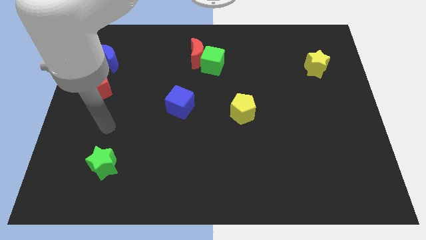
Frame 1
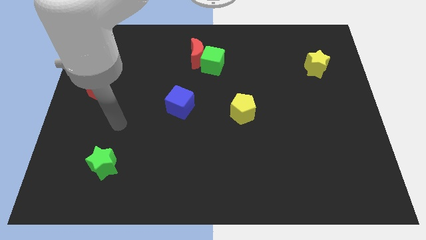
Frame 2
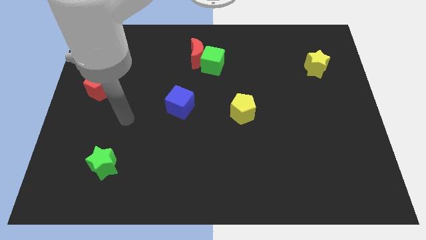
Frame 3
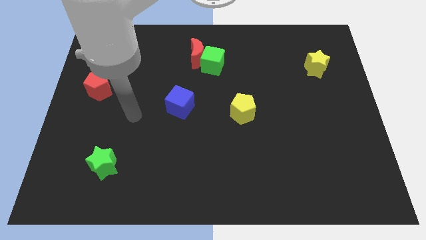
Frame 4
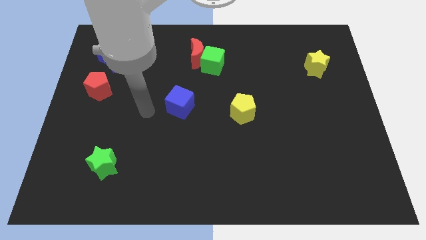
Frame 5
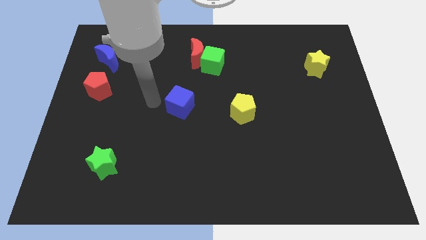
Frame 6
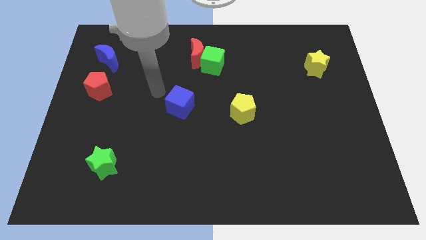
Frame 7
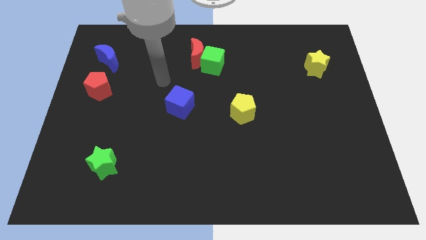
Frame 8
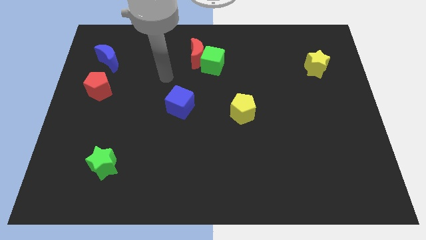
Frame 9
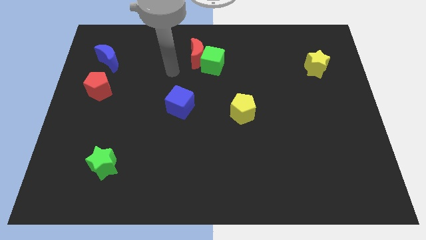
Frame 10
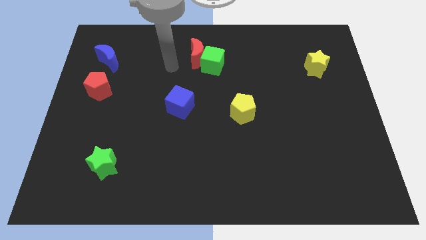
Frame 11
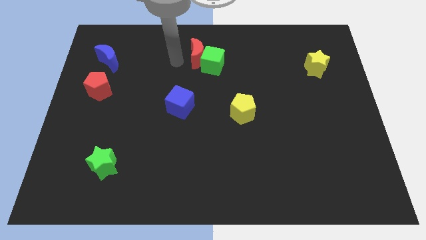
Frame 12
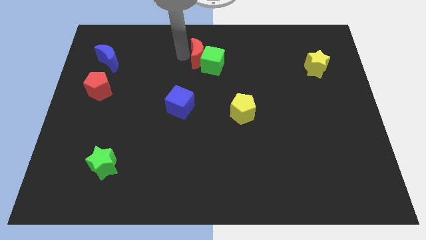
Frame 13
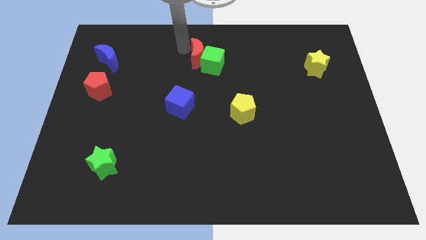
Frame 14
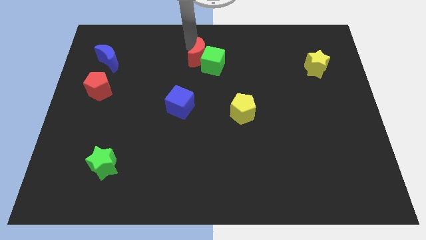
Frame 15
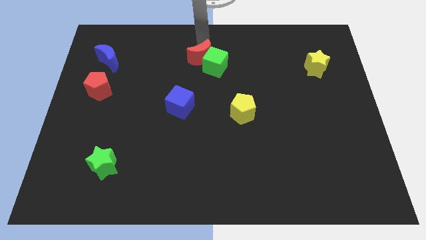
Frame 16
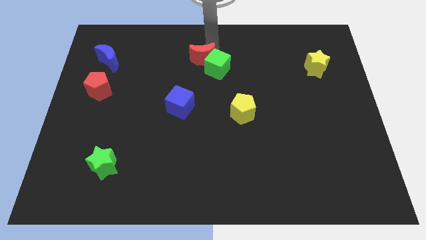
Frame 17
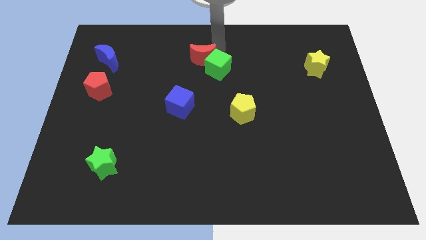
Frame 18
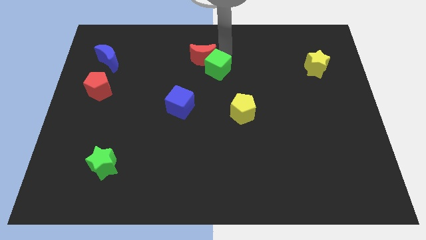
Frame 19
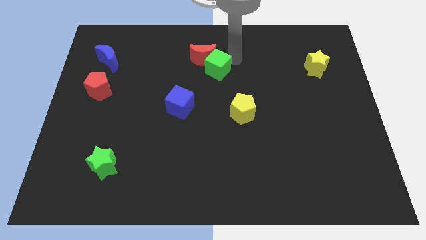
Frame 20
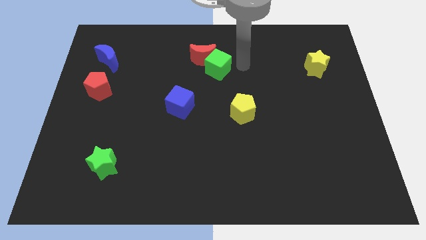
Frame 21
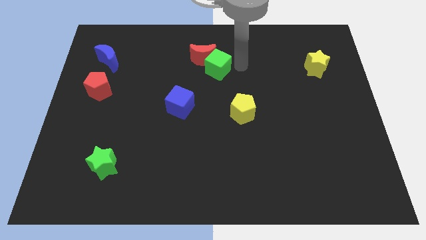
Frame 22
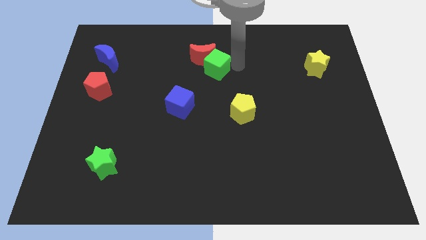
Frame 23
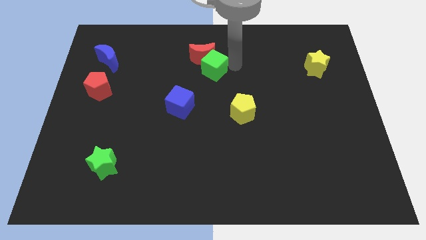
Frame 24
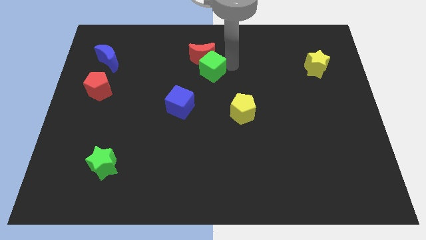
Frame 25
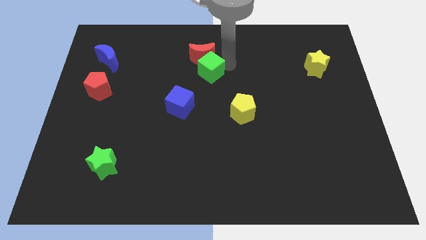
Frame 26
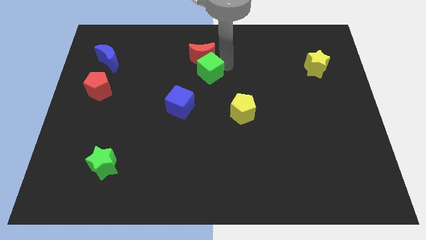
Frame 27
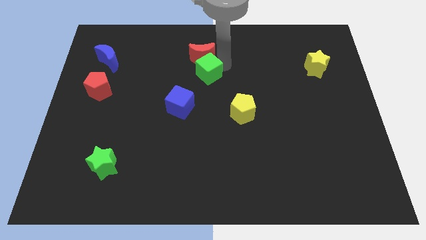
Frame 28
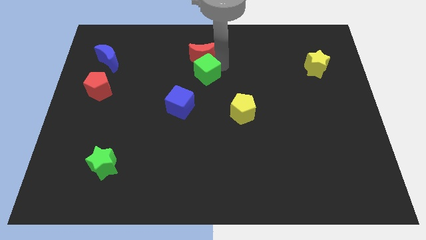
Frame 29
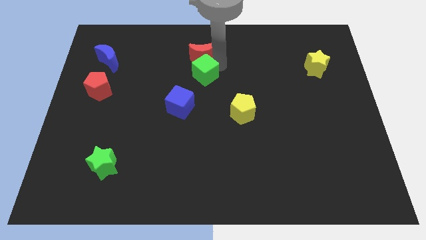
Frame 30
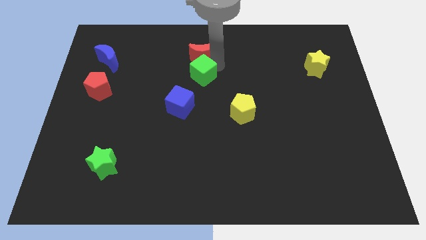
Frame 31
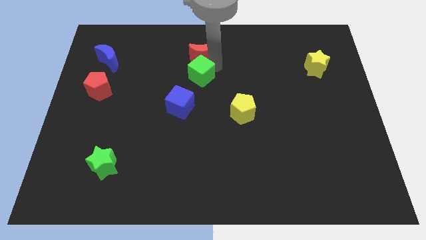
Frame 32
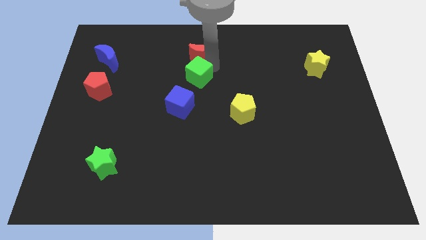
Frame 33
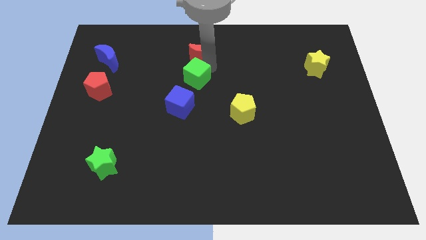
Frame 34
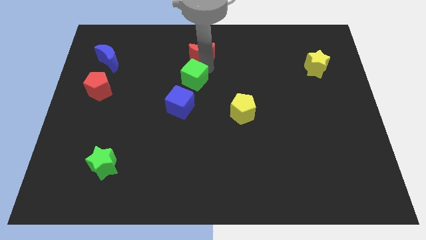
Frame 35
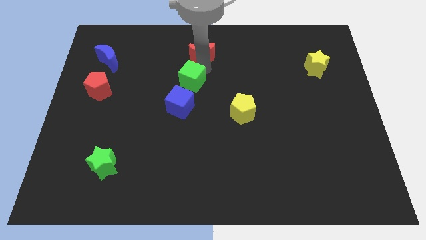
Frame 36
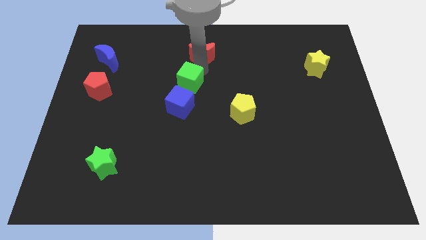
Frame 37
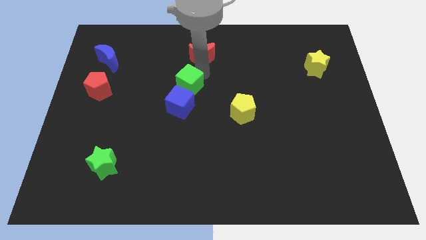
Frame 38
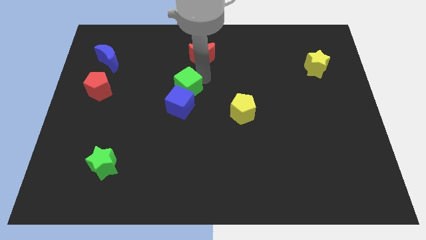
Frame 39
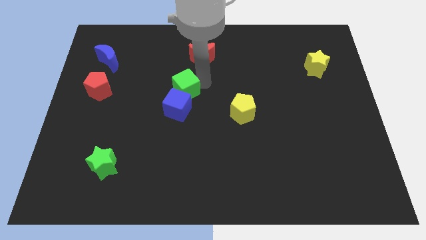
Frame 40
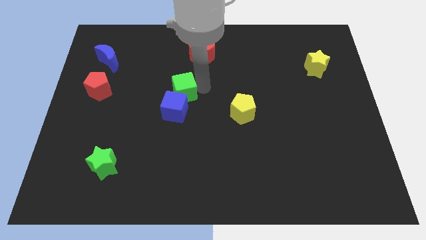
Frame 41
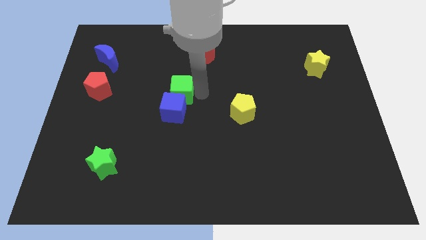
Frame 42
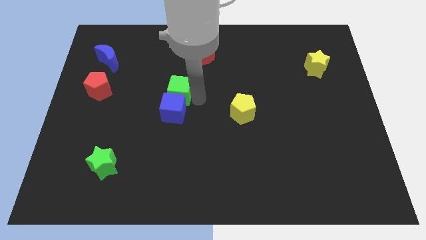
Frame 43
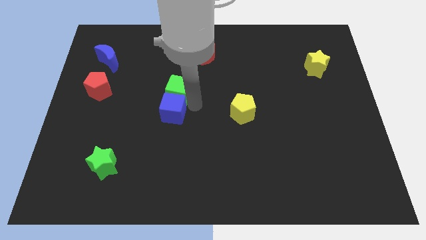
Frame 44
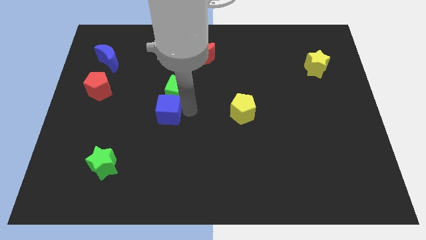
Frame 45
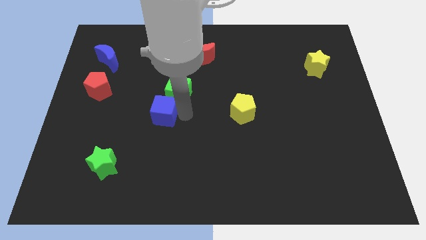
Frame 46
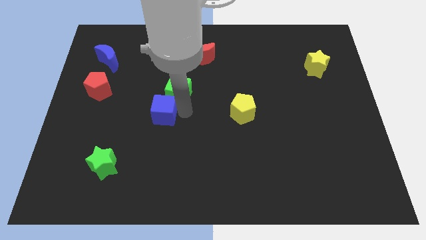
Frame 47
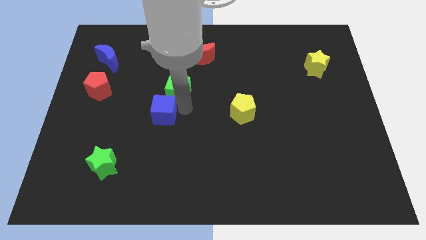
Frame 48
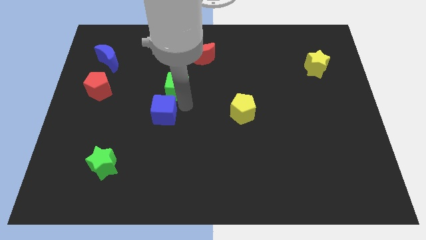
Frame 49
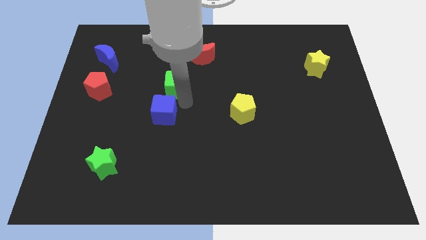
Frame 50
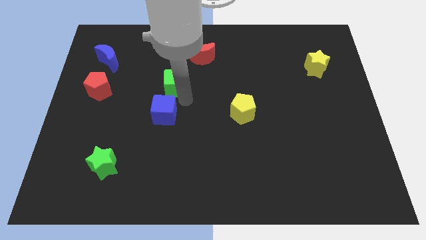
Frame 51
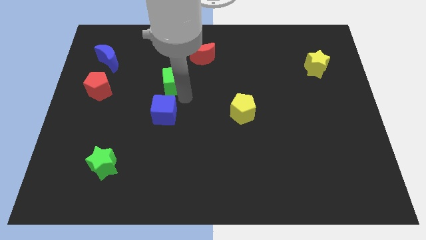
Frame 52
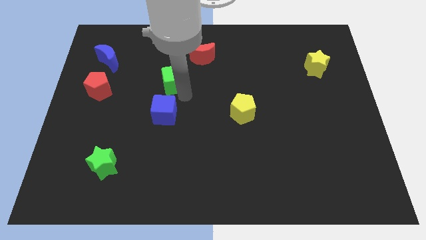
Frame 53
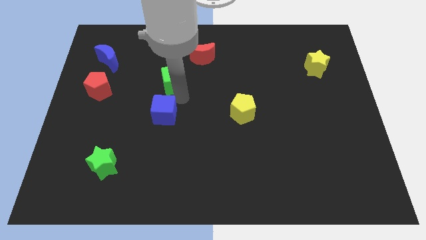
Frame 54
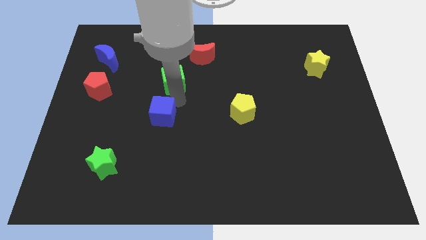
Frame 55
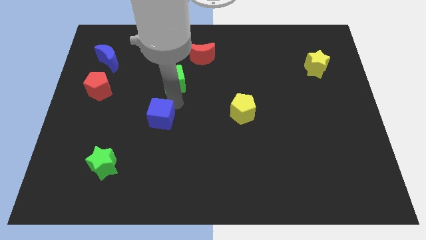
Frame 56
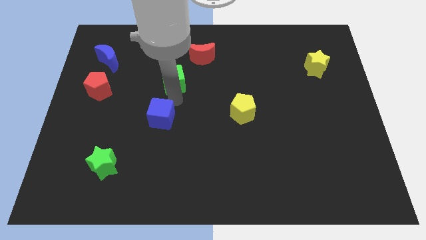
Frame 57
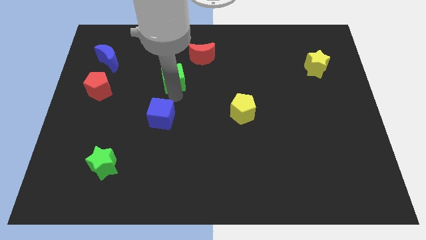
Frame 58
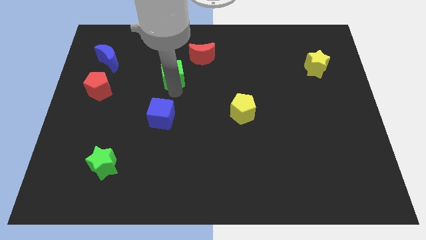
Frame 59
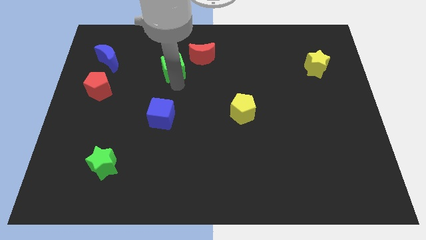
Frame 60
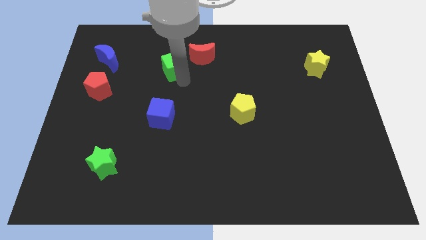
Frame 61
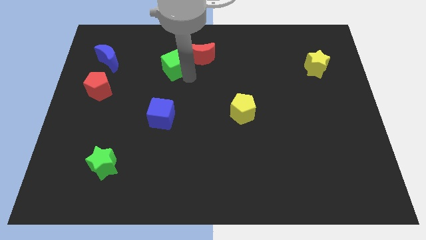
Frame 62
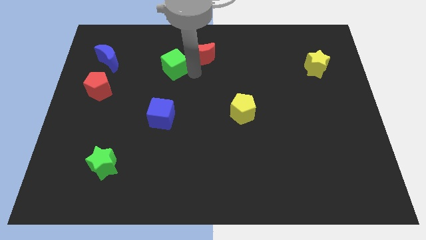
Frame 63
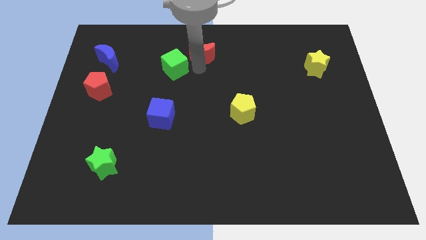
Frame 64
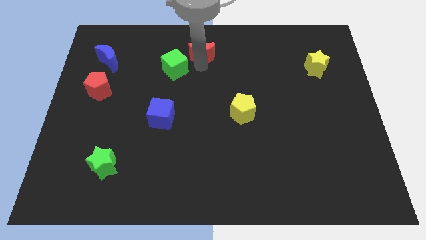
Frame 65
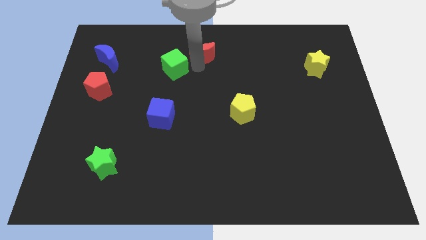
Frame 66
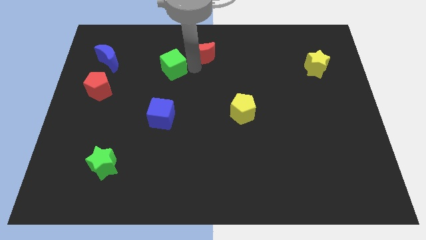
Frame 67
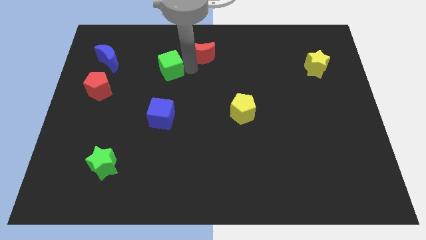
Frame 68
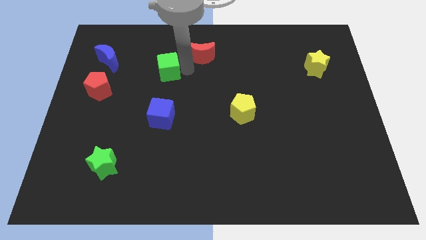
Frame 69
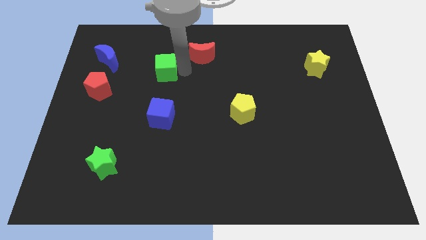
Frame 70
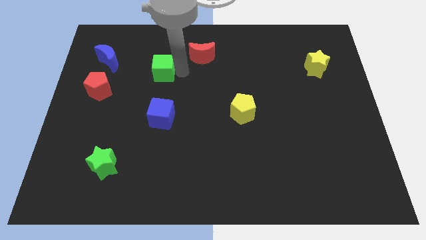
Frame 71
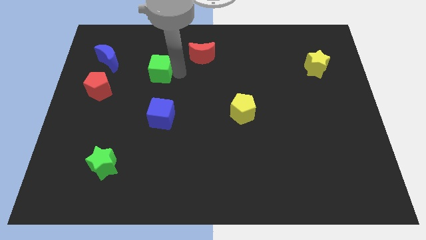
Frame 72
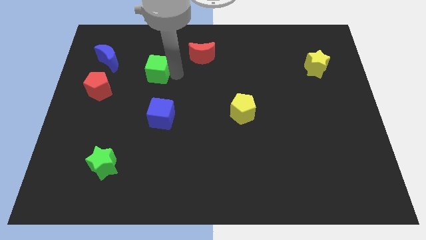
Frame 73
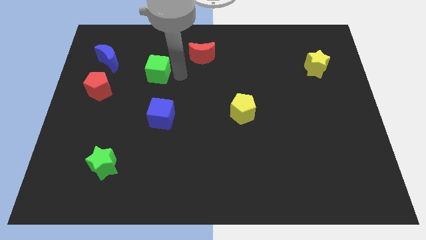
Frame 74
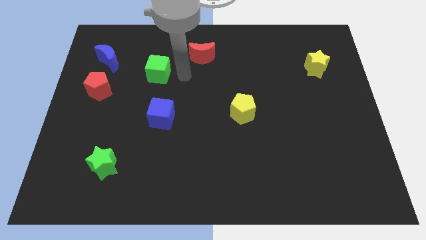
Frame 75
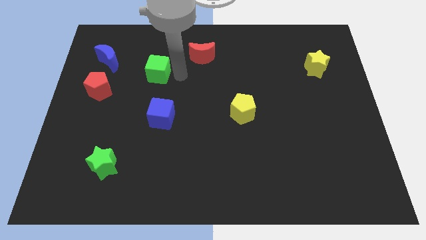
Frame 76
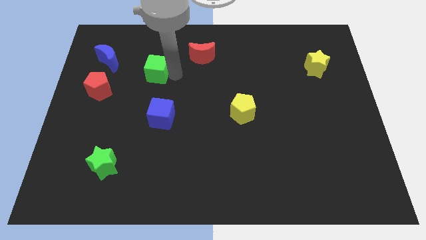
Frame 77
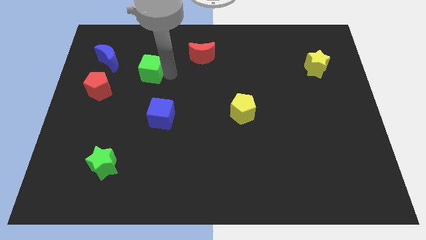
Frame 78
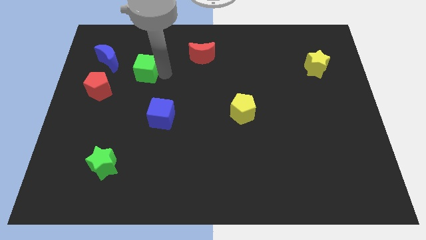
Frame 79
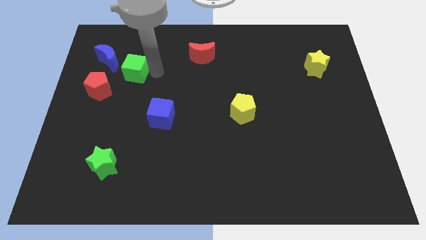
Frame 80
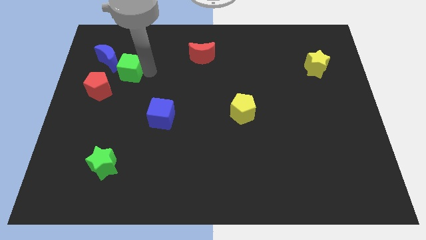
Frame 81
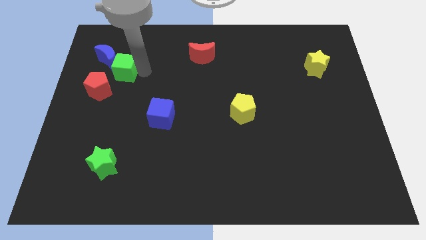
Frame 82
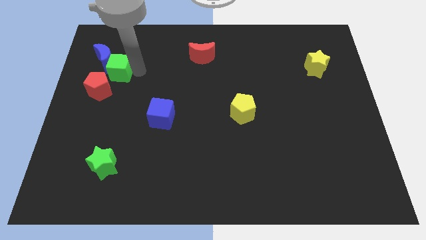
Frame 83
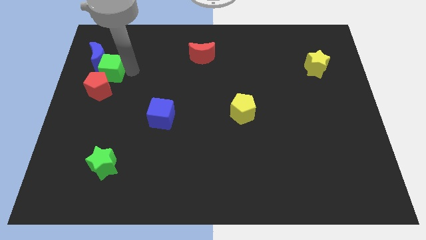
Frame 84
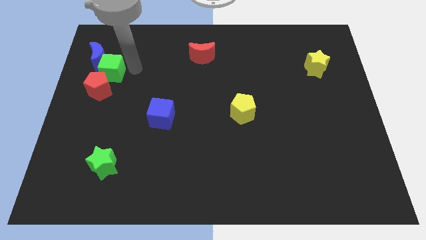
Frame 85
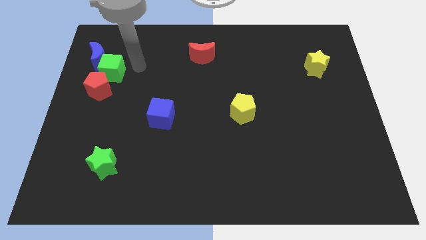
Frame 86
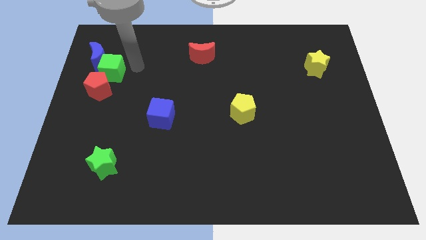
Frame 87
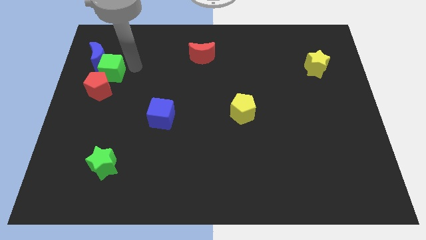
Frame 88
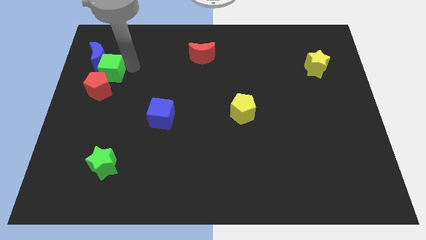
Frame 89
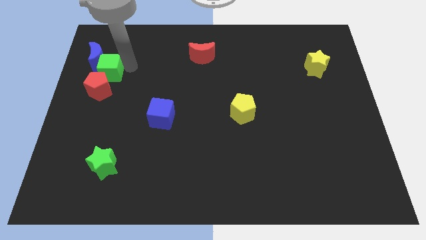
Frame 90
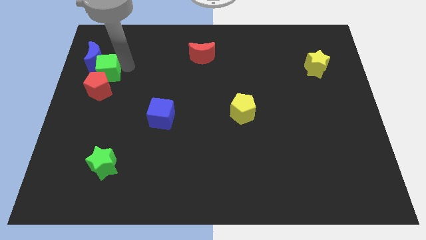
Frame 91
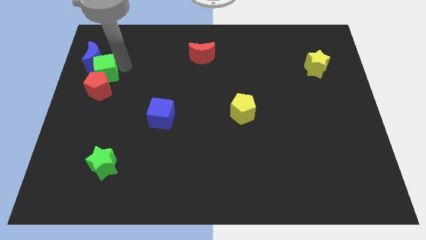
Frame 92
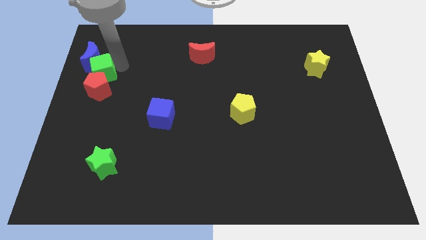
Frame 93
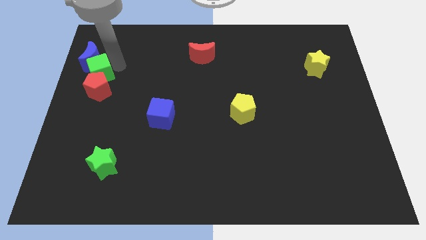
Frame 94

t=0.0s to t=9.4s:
move the green cube to the left side of the board
